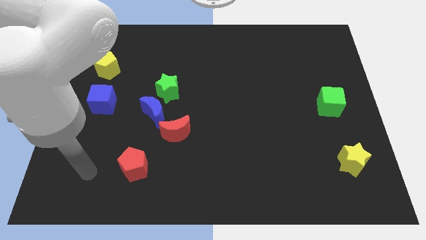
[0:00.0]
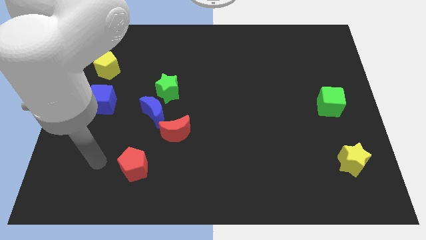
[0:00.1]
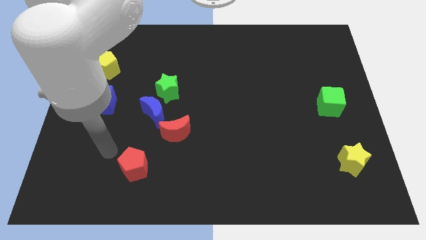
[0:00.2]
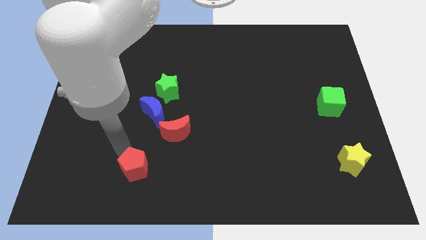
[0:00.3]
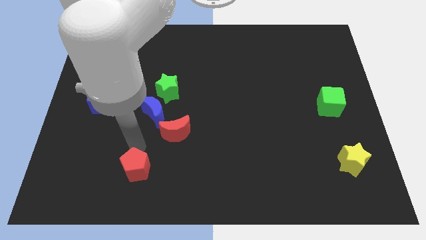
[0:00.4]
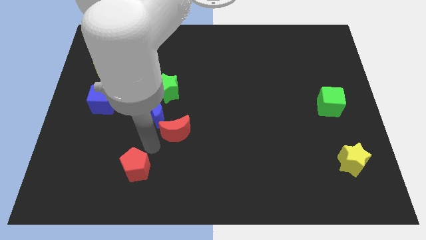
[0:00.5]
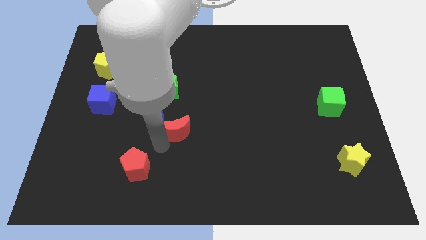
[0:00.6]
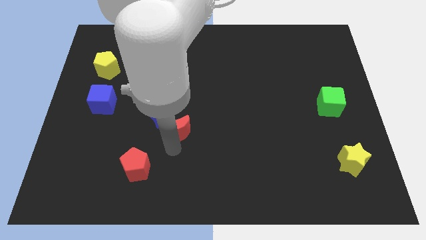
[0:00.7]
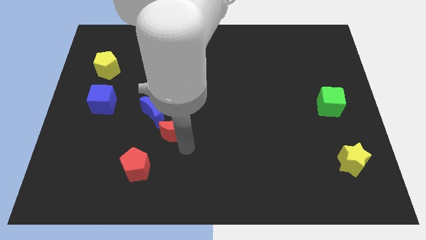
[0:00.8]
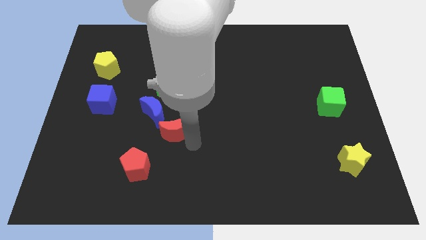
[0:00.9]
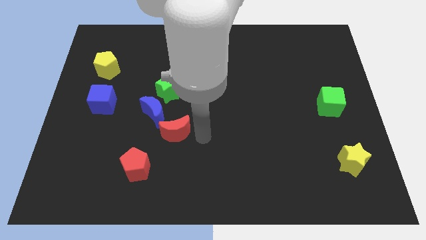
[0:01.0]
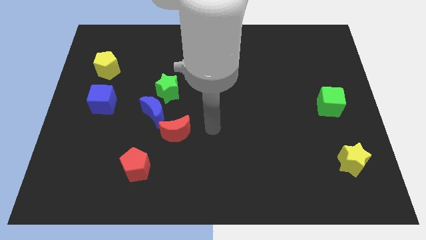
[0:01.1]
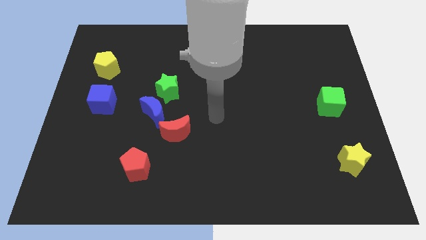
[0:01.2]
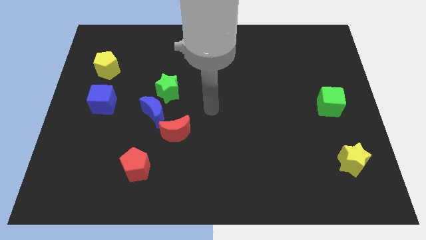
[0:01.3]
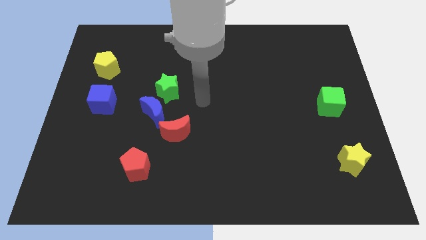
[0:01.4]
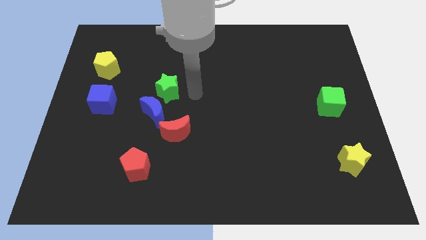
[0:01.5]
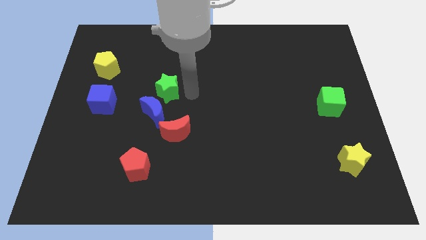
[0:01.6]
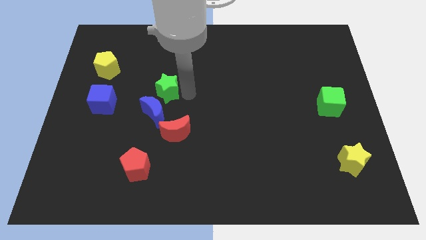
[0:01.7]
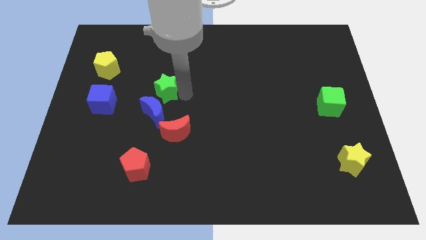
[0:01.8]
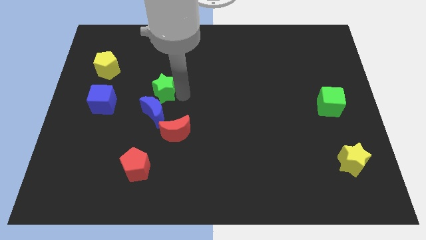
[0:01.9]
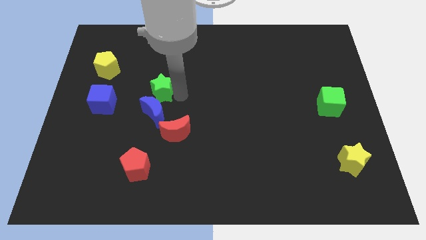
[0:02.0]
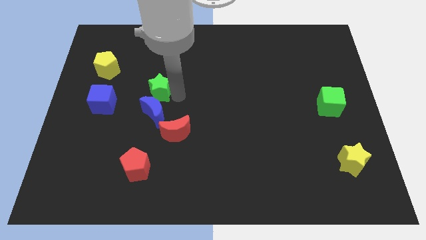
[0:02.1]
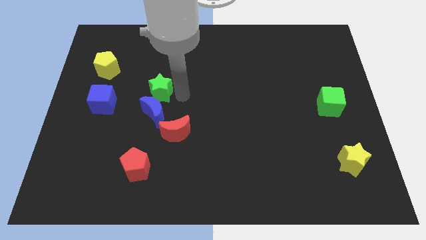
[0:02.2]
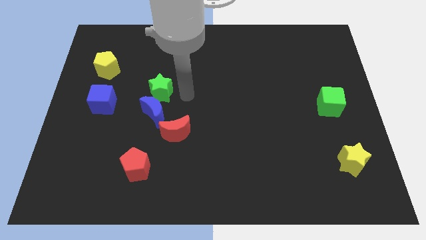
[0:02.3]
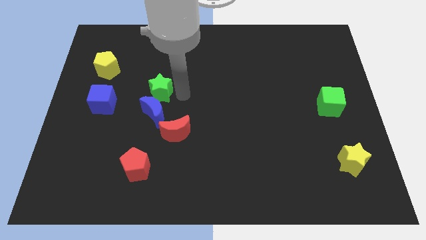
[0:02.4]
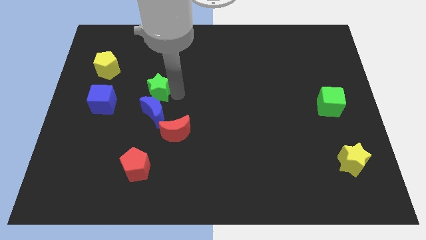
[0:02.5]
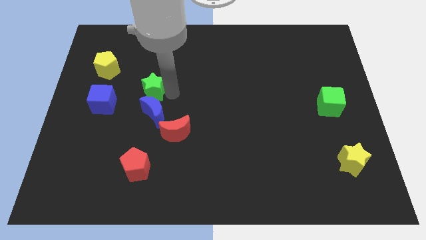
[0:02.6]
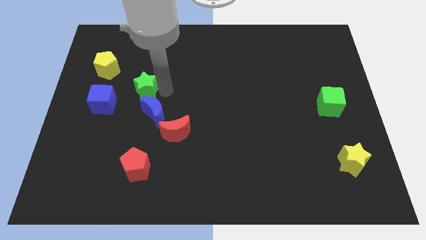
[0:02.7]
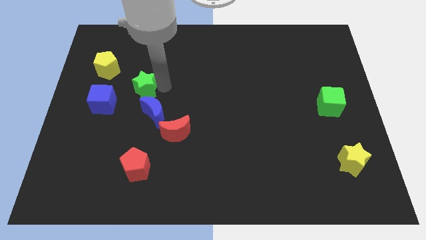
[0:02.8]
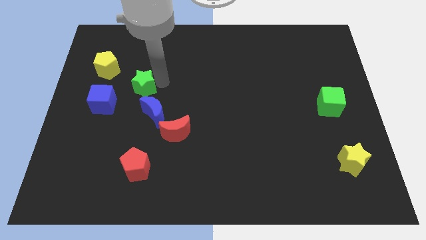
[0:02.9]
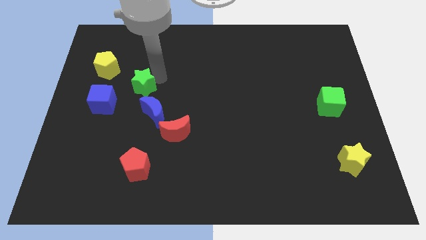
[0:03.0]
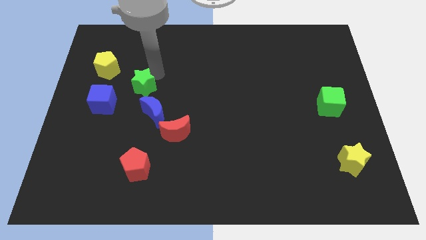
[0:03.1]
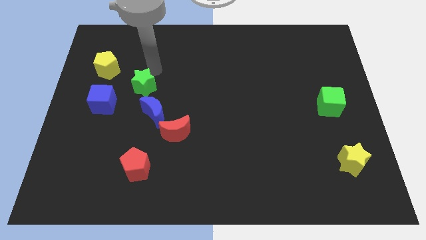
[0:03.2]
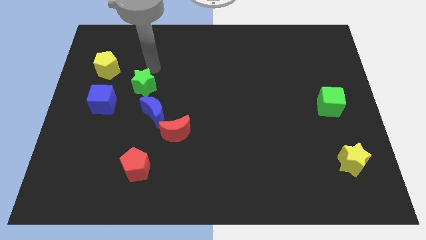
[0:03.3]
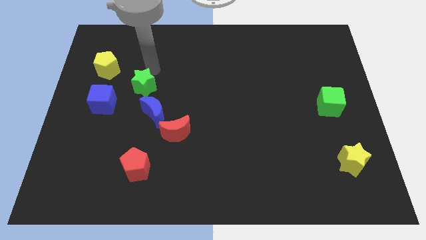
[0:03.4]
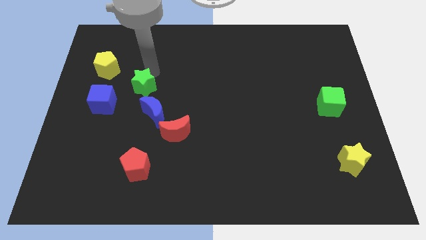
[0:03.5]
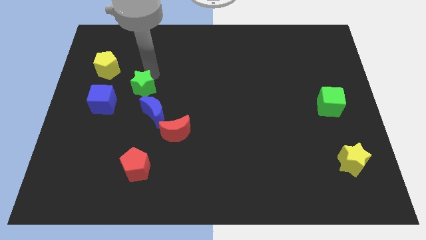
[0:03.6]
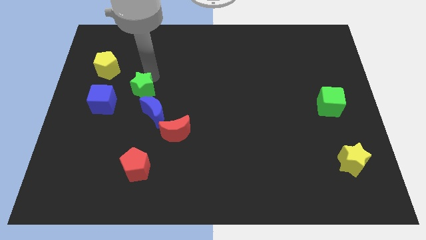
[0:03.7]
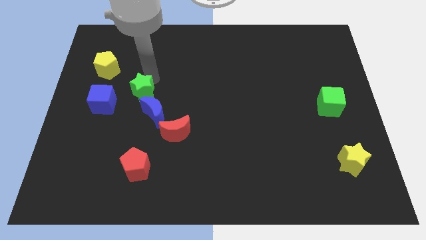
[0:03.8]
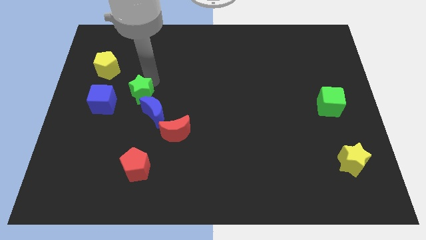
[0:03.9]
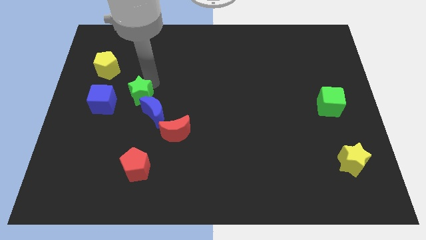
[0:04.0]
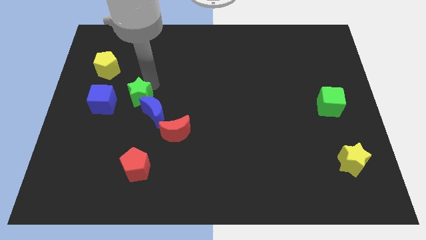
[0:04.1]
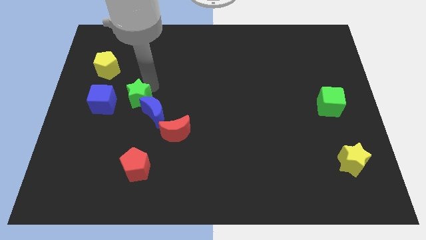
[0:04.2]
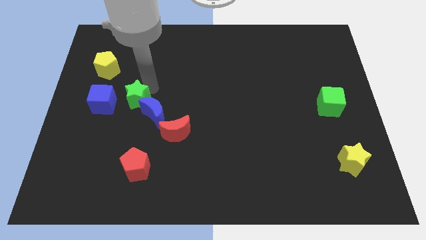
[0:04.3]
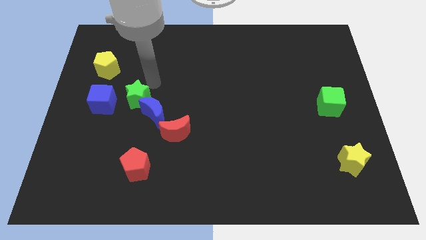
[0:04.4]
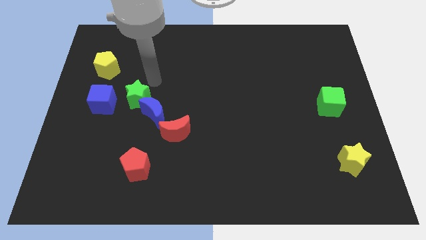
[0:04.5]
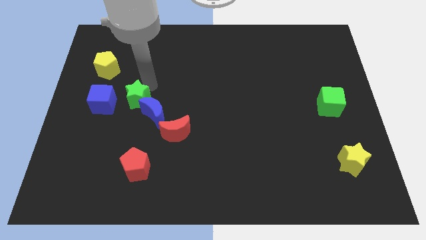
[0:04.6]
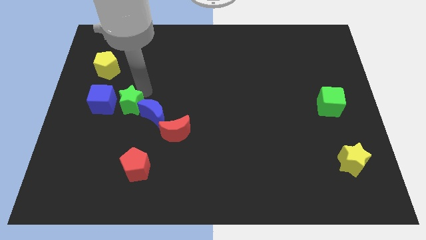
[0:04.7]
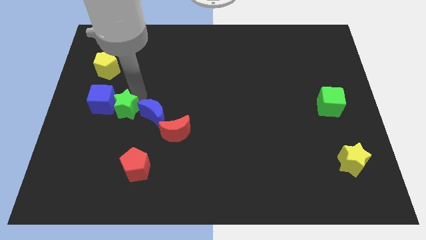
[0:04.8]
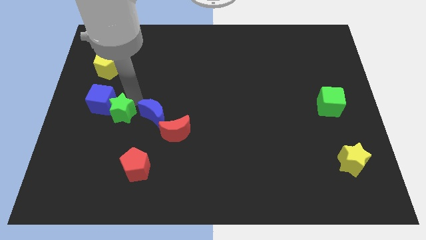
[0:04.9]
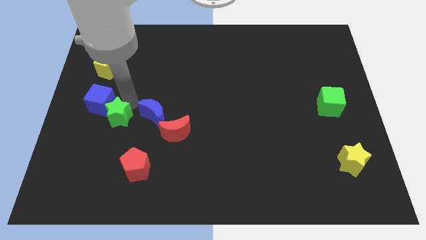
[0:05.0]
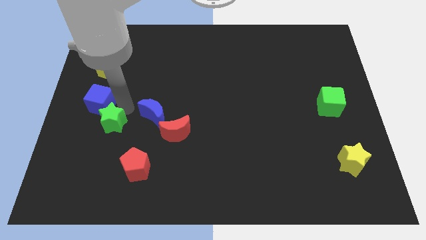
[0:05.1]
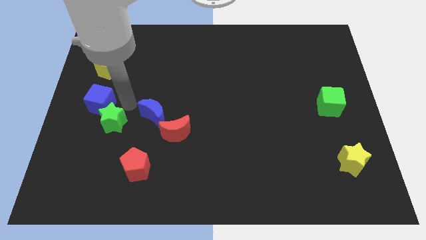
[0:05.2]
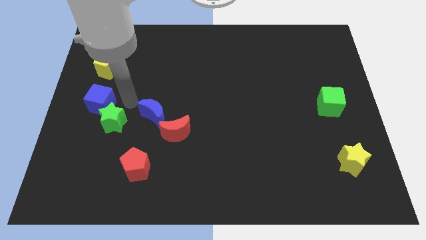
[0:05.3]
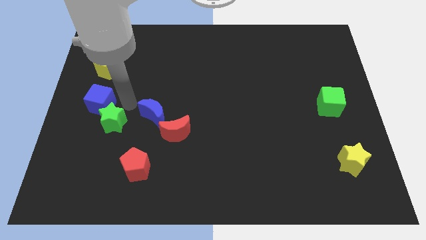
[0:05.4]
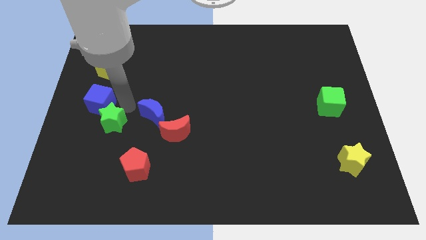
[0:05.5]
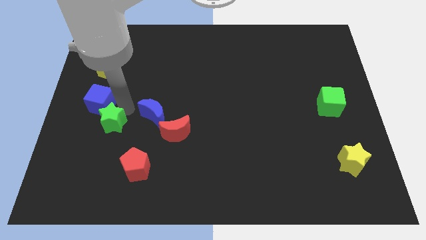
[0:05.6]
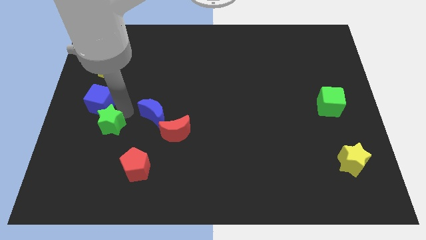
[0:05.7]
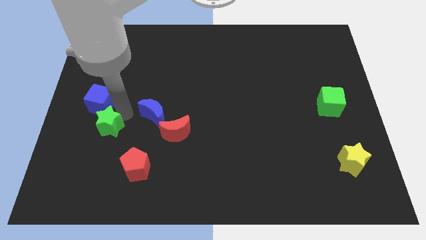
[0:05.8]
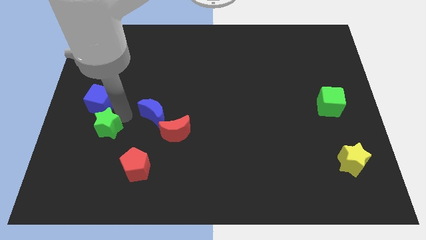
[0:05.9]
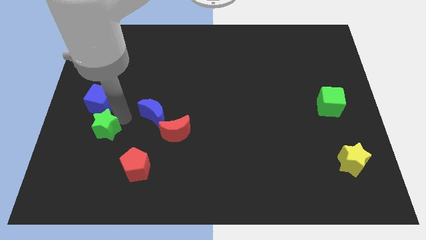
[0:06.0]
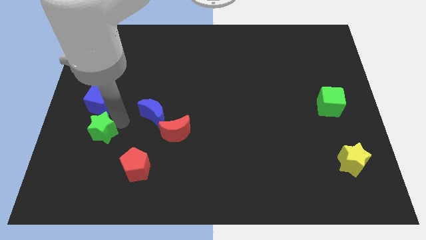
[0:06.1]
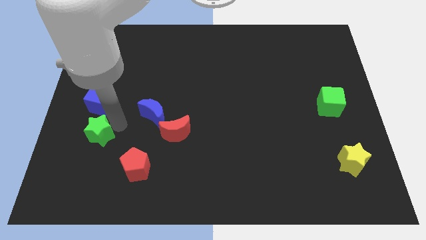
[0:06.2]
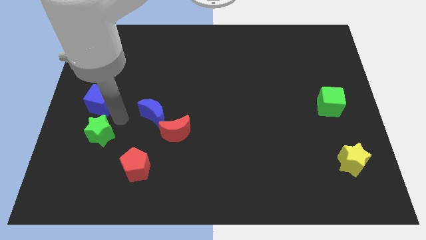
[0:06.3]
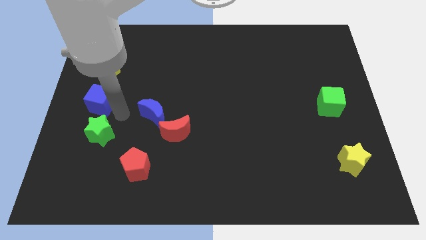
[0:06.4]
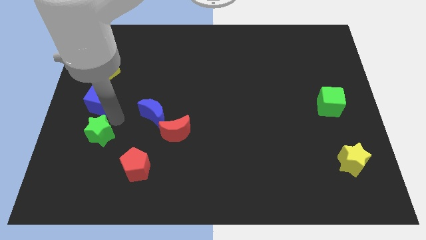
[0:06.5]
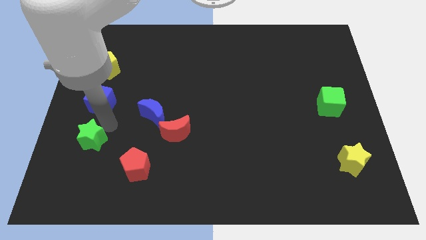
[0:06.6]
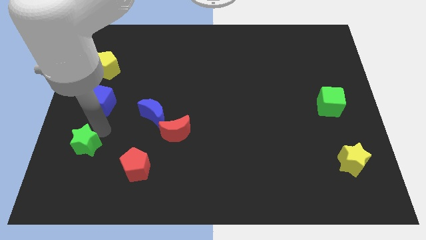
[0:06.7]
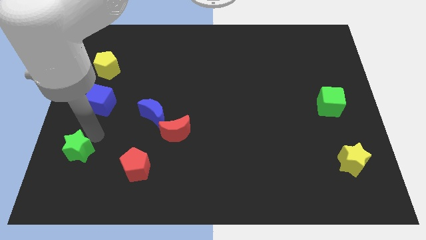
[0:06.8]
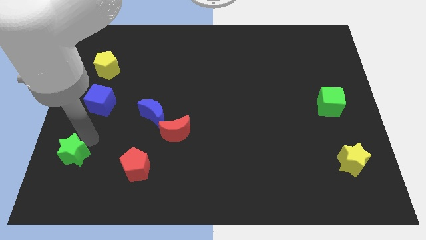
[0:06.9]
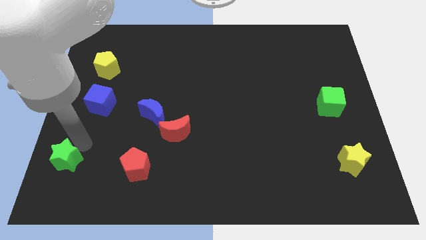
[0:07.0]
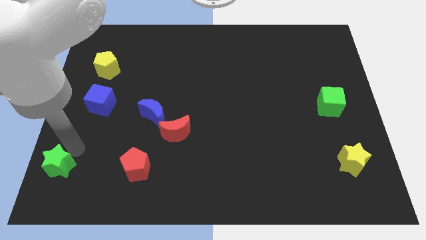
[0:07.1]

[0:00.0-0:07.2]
move the green star to the bottom left
